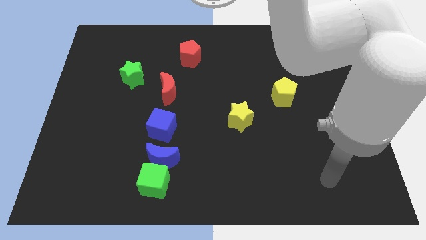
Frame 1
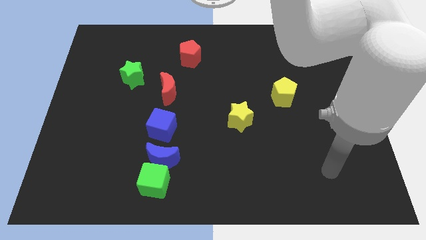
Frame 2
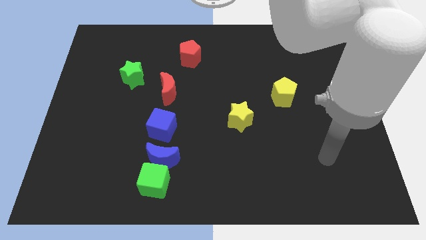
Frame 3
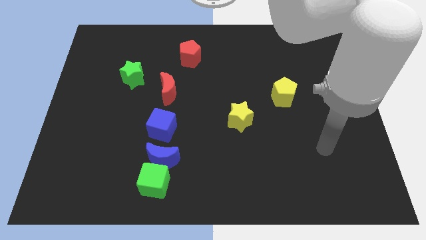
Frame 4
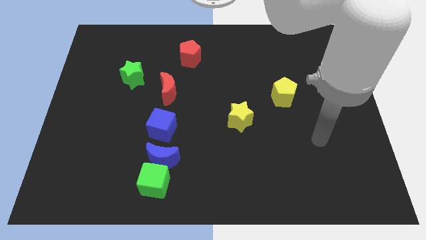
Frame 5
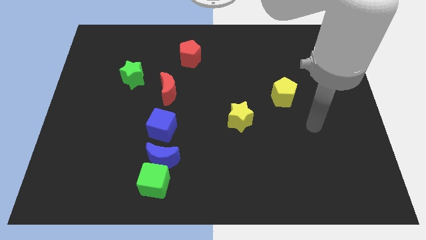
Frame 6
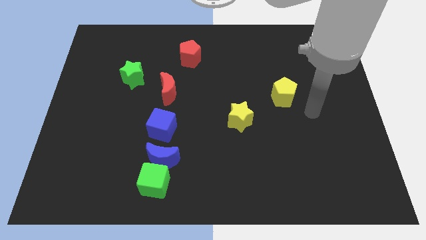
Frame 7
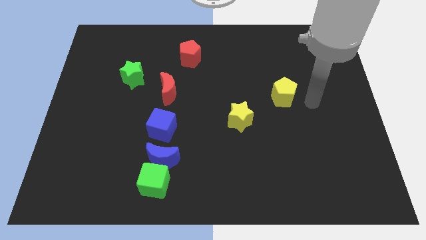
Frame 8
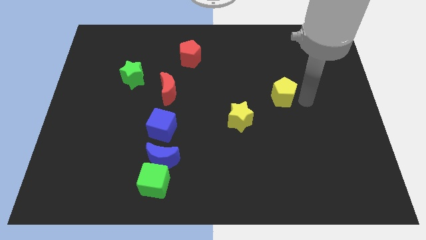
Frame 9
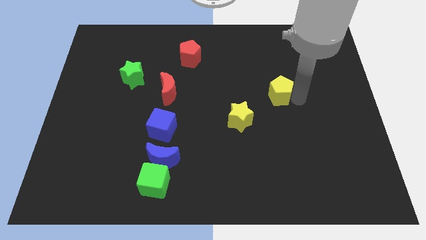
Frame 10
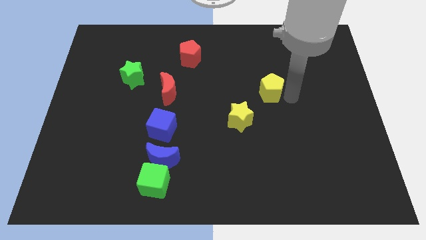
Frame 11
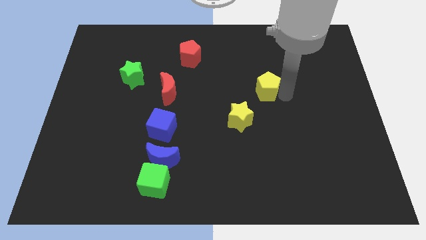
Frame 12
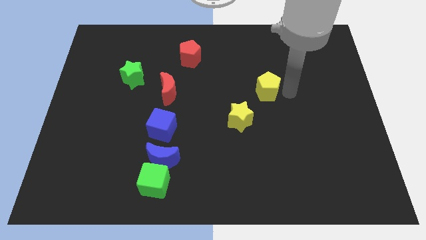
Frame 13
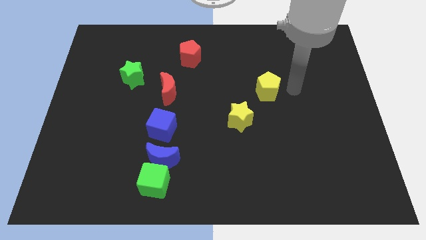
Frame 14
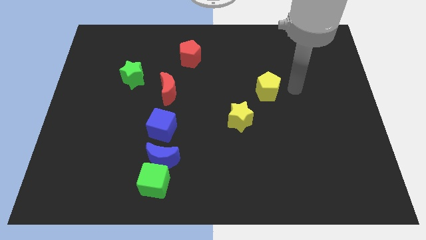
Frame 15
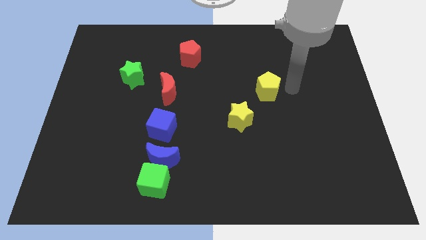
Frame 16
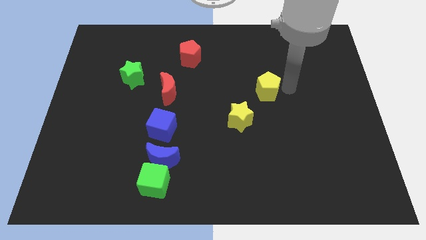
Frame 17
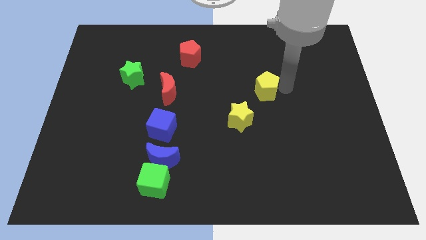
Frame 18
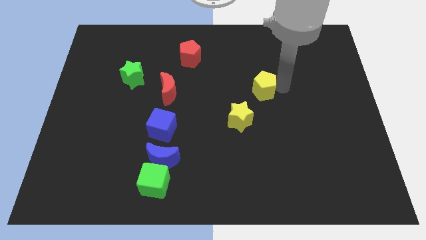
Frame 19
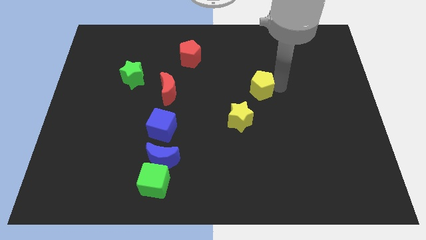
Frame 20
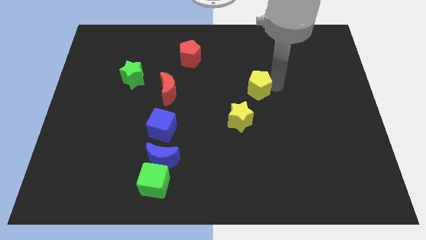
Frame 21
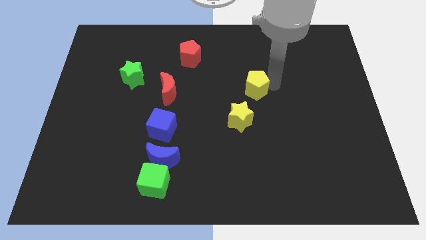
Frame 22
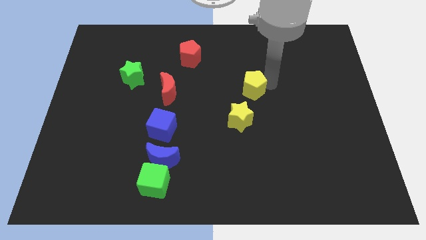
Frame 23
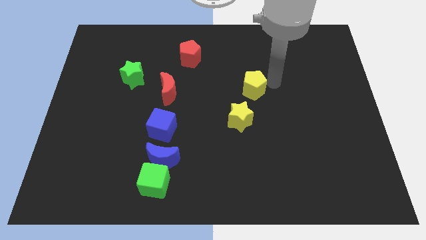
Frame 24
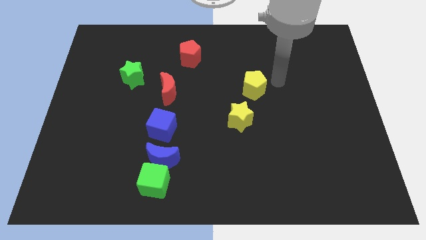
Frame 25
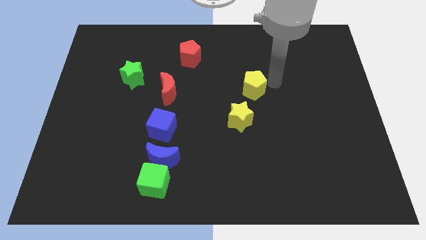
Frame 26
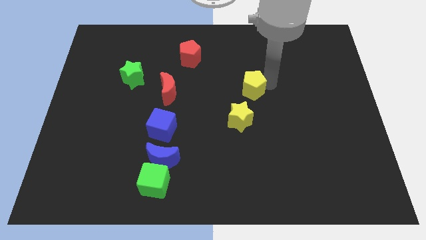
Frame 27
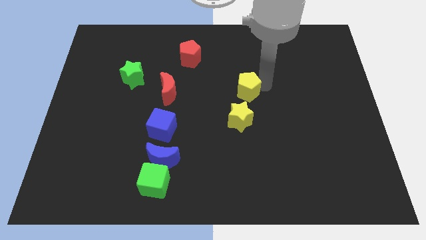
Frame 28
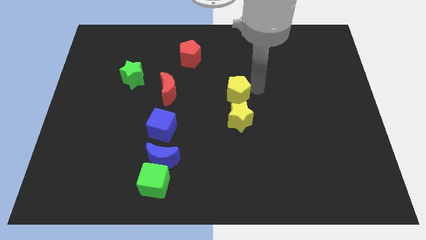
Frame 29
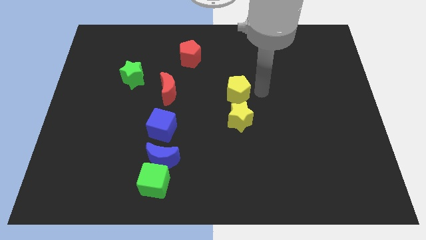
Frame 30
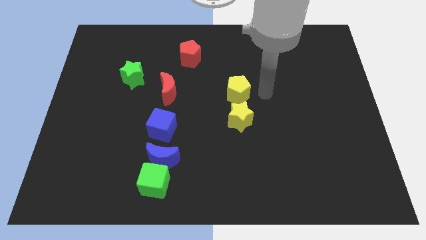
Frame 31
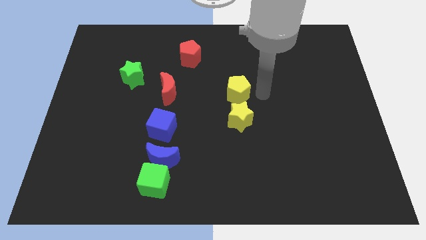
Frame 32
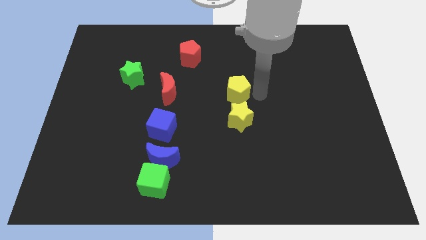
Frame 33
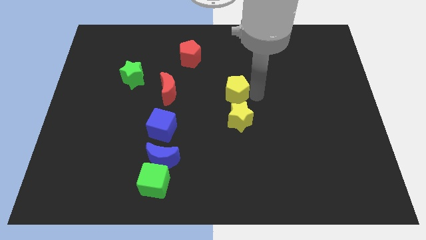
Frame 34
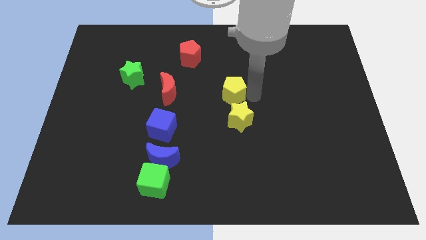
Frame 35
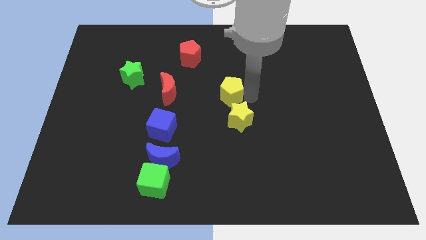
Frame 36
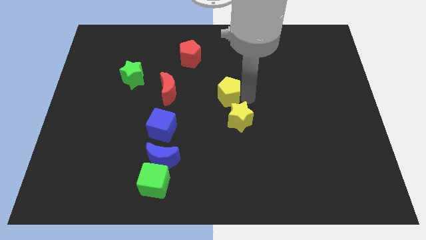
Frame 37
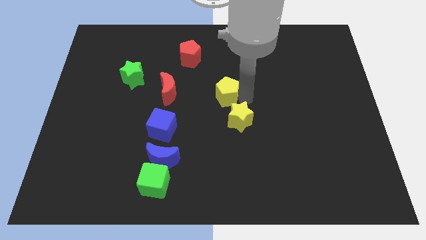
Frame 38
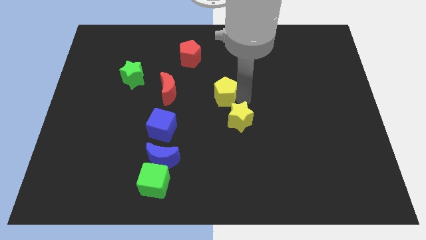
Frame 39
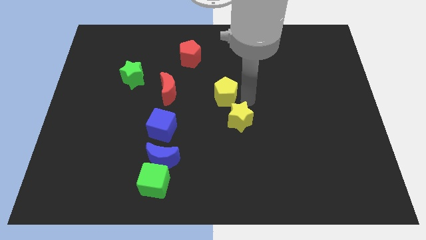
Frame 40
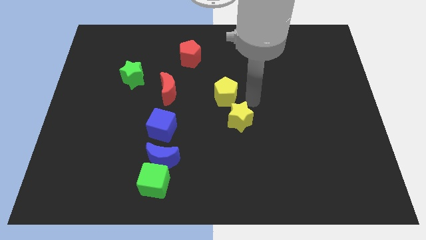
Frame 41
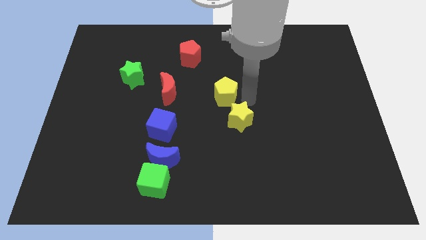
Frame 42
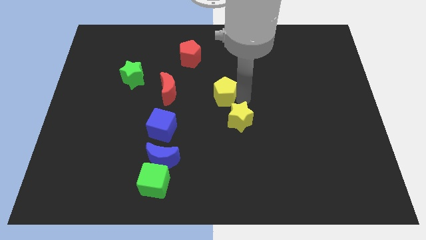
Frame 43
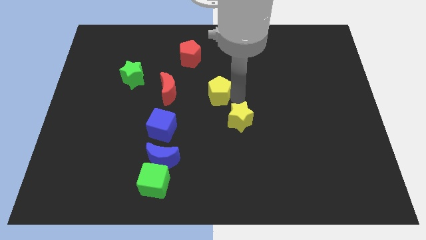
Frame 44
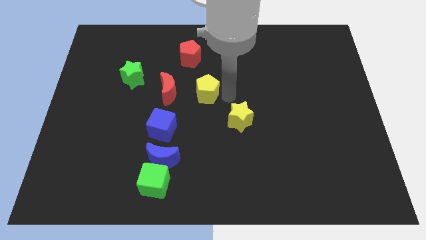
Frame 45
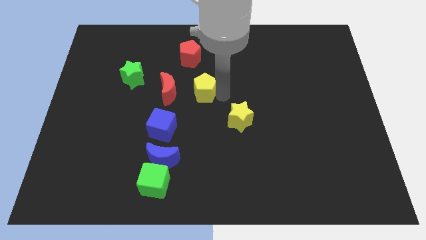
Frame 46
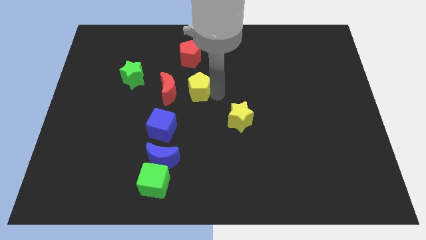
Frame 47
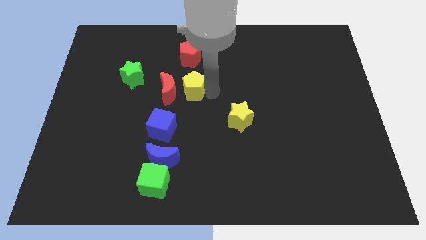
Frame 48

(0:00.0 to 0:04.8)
slide the yellow pentagon next to the red moon

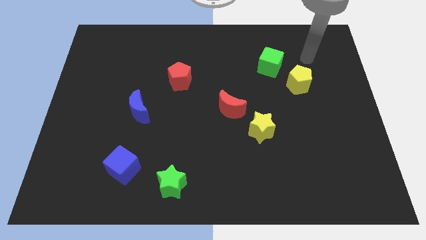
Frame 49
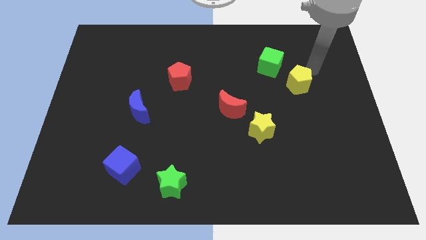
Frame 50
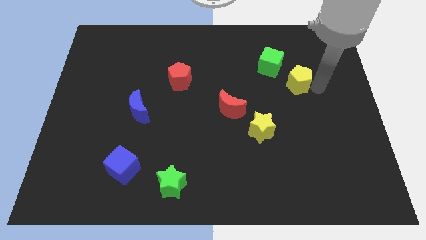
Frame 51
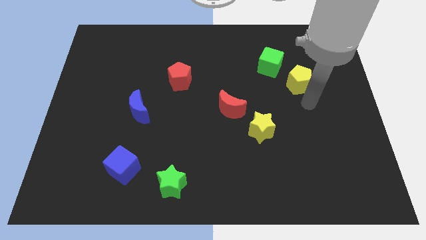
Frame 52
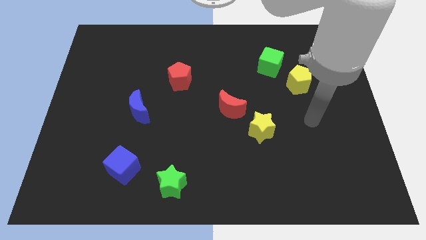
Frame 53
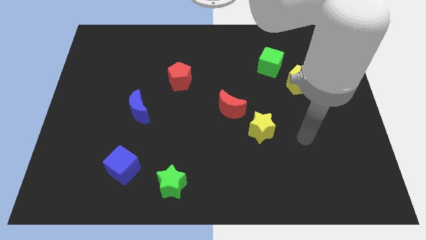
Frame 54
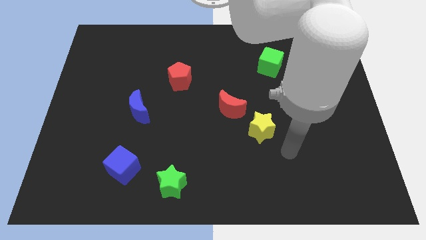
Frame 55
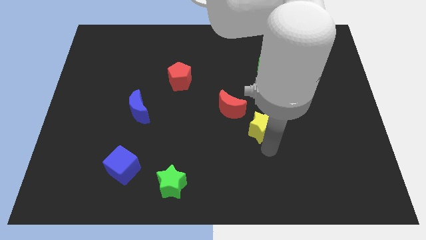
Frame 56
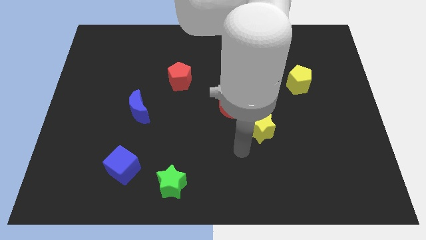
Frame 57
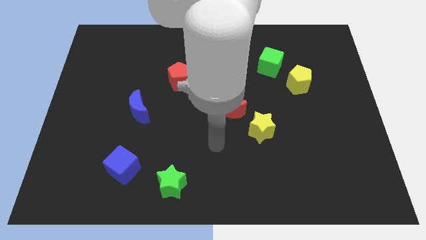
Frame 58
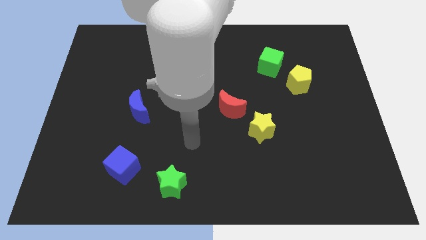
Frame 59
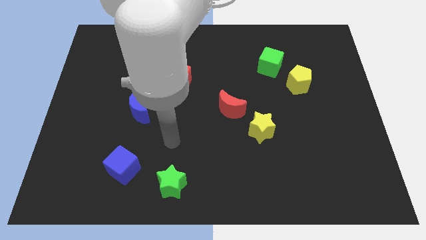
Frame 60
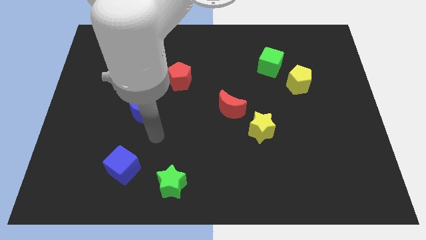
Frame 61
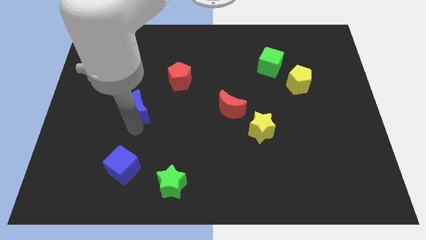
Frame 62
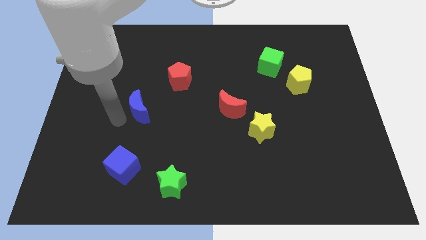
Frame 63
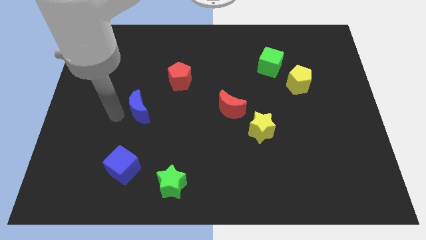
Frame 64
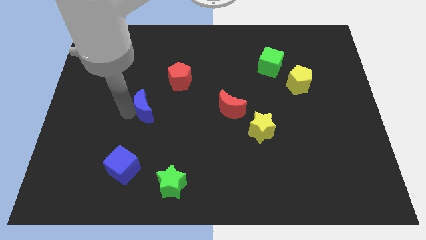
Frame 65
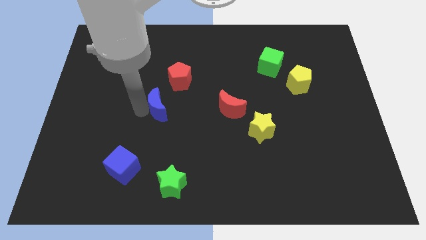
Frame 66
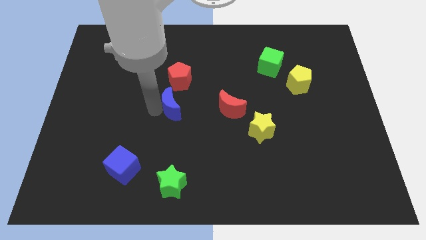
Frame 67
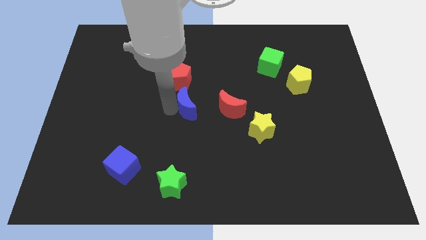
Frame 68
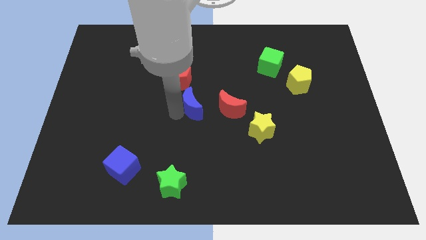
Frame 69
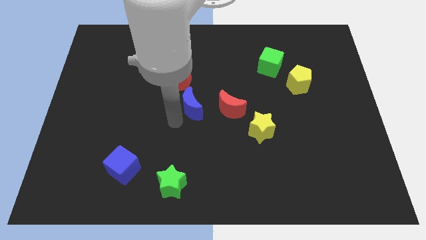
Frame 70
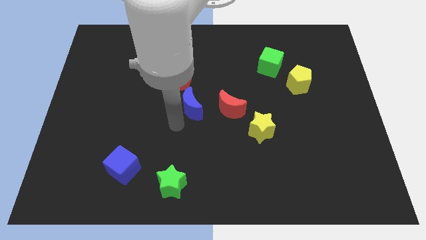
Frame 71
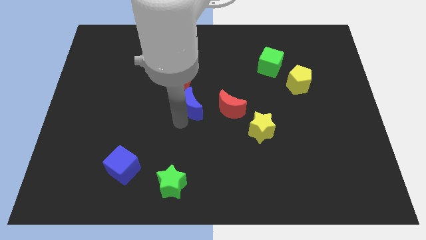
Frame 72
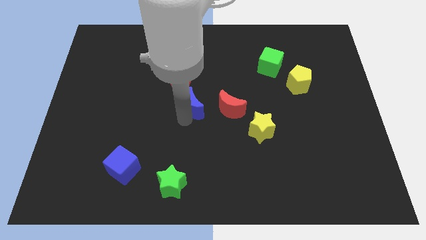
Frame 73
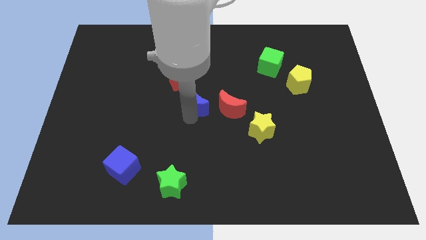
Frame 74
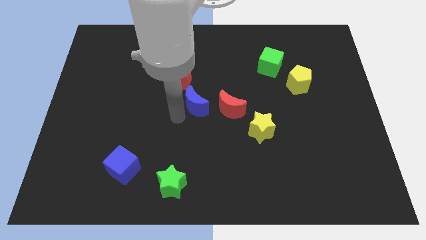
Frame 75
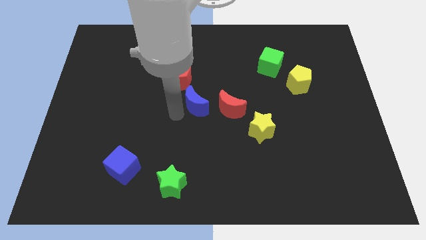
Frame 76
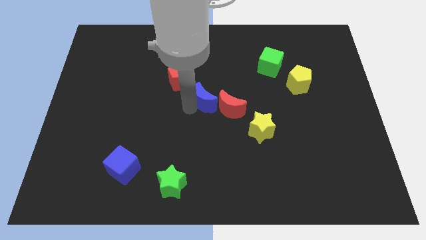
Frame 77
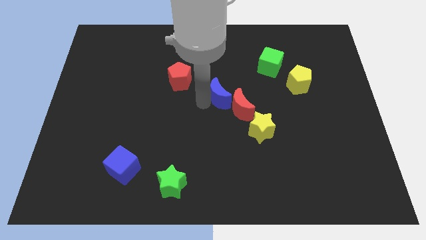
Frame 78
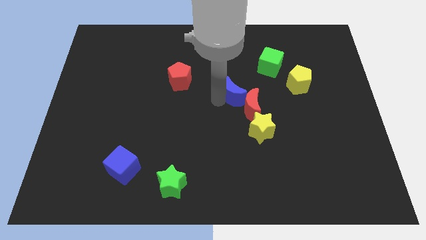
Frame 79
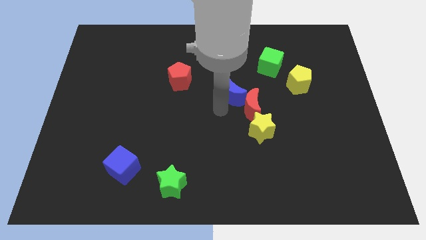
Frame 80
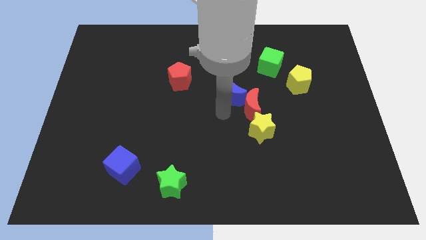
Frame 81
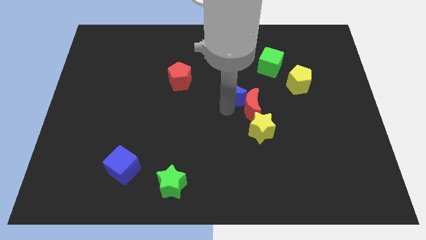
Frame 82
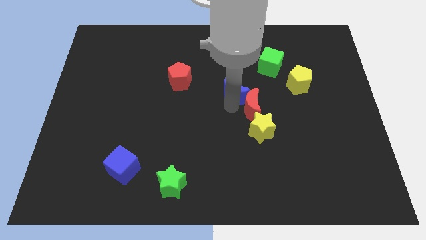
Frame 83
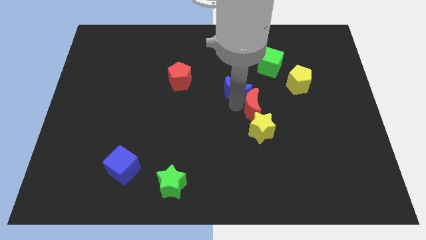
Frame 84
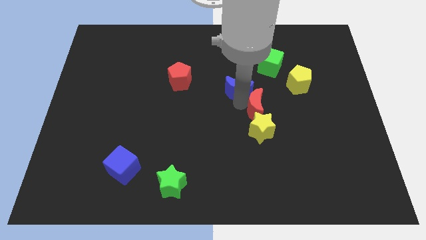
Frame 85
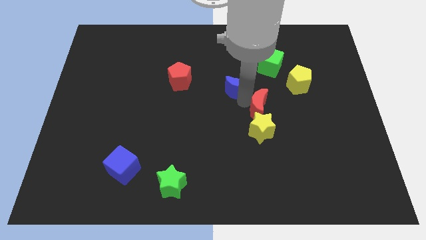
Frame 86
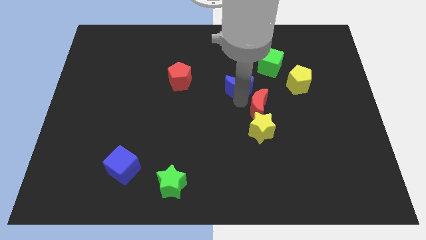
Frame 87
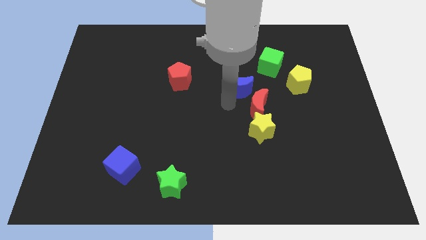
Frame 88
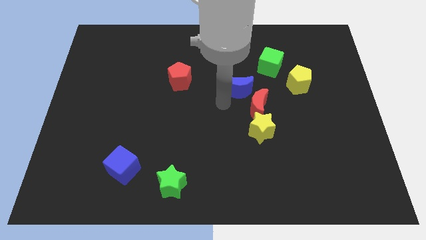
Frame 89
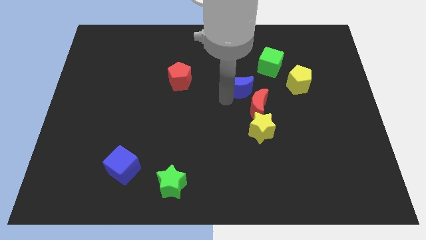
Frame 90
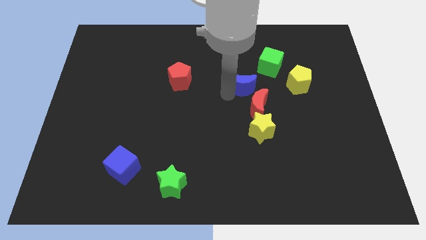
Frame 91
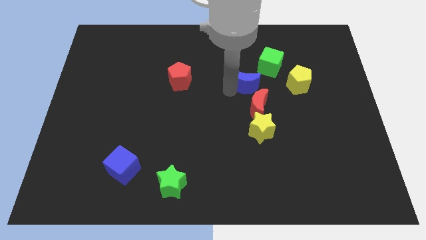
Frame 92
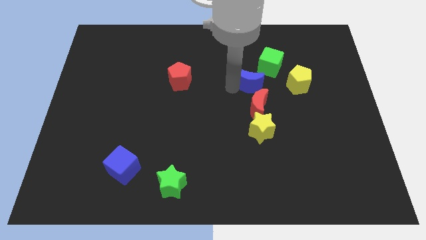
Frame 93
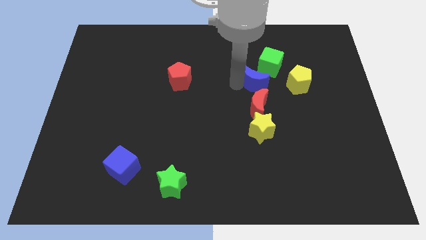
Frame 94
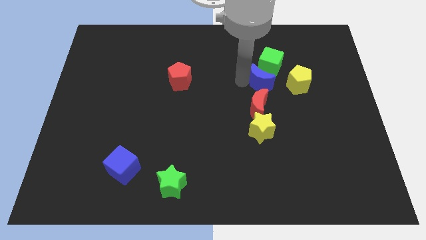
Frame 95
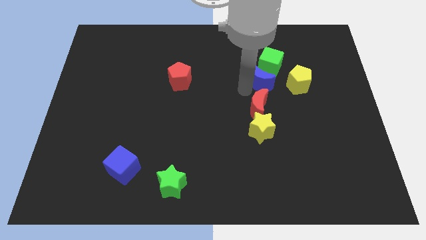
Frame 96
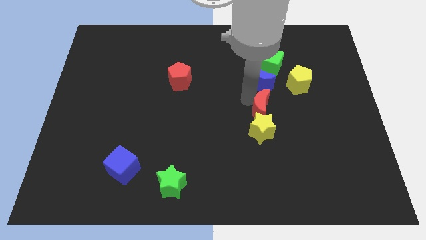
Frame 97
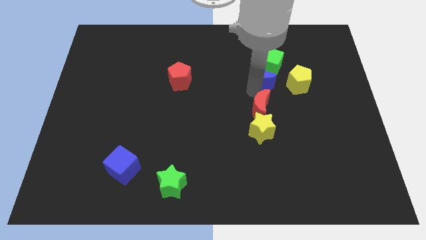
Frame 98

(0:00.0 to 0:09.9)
move the blue moon next to the green cube
